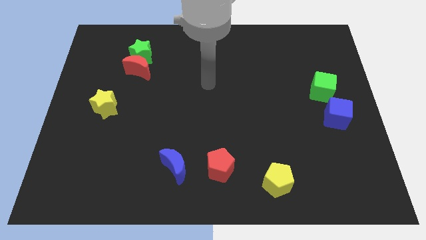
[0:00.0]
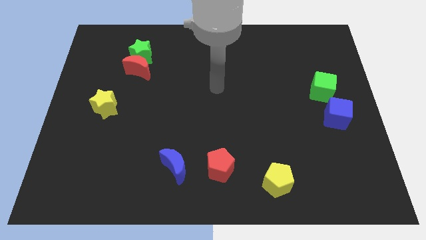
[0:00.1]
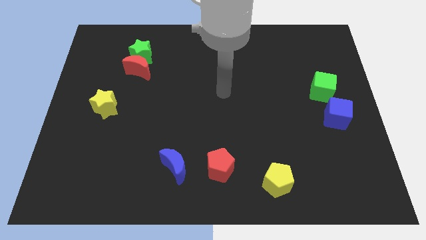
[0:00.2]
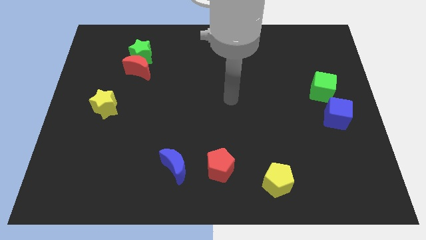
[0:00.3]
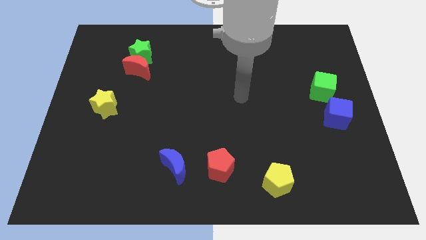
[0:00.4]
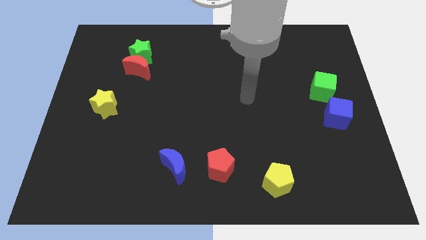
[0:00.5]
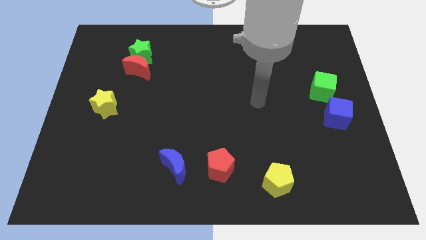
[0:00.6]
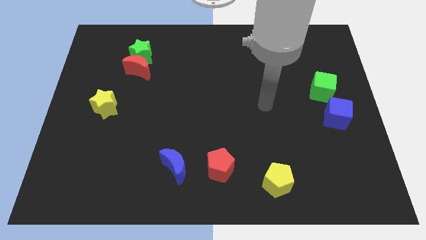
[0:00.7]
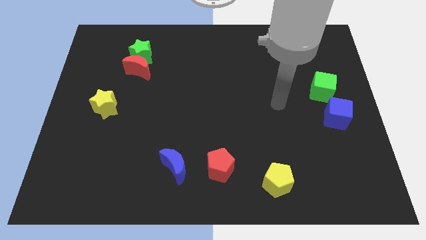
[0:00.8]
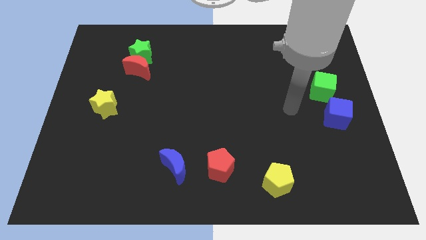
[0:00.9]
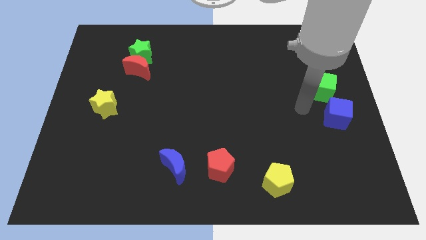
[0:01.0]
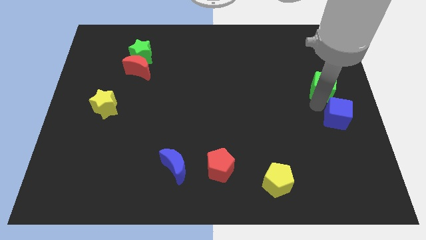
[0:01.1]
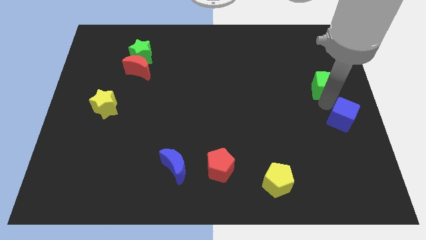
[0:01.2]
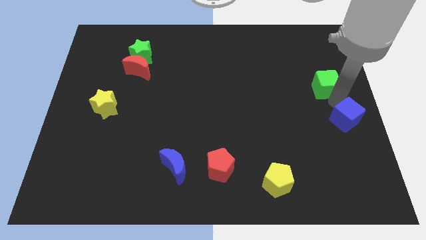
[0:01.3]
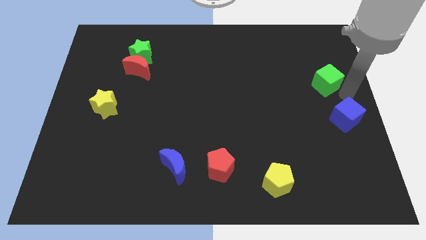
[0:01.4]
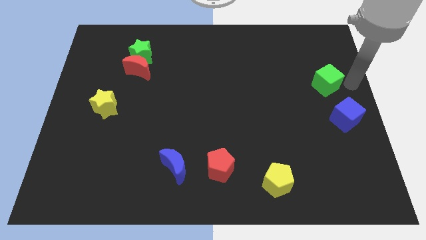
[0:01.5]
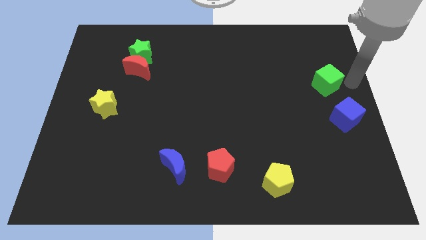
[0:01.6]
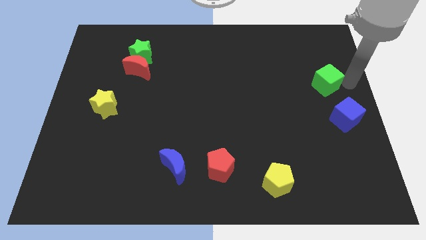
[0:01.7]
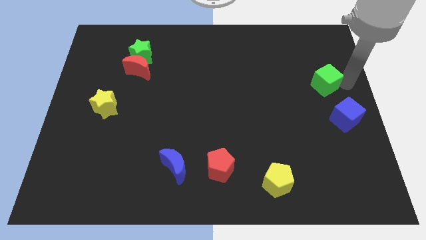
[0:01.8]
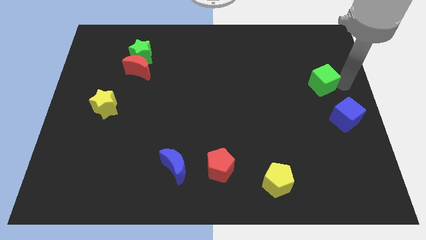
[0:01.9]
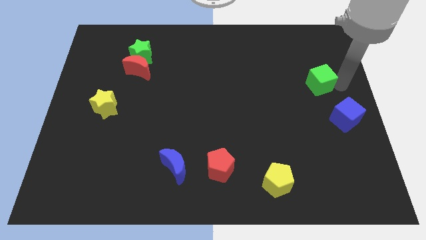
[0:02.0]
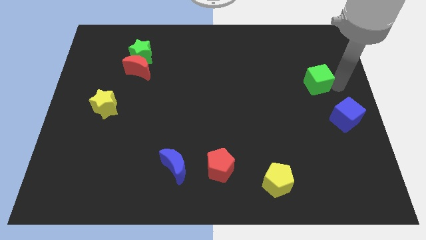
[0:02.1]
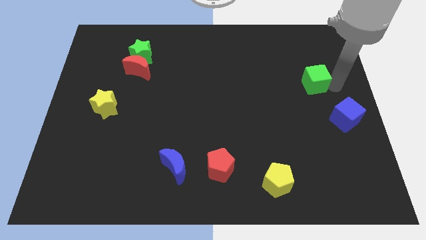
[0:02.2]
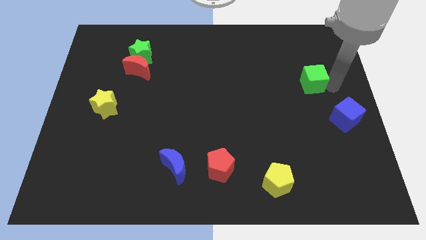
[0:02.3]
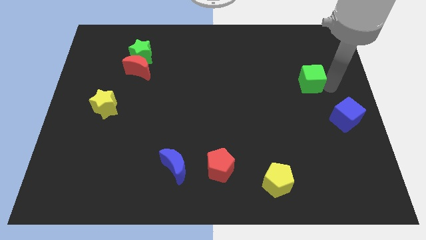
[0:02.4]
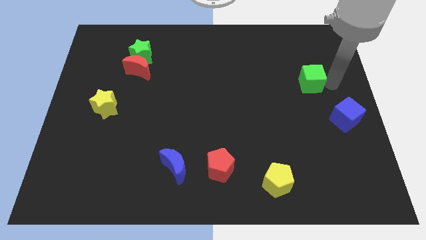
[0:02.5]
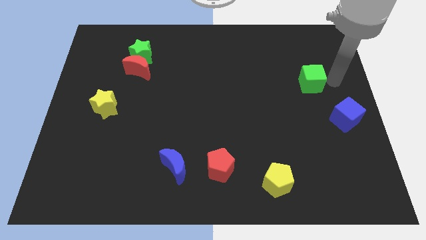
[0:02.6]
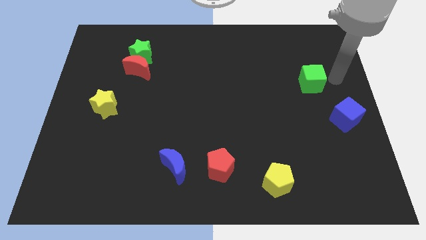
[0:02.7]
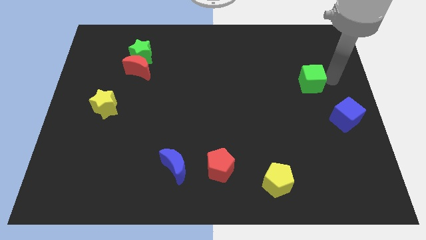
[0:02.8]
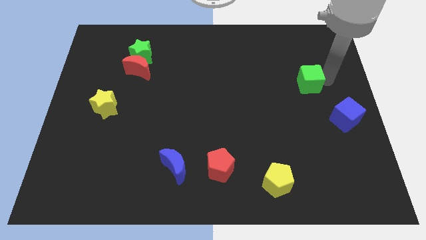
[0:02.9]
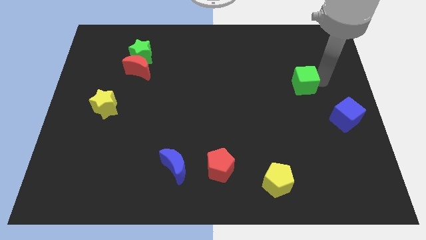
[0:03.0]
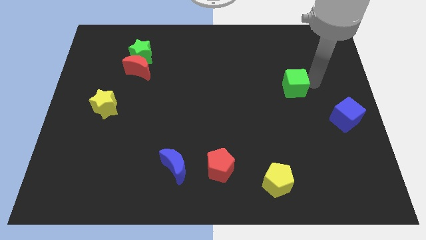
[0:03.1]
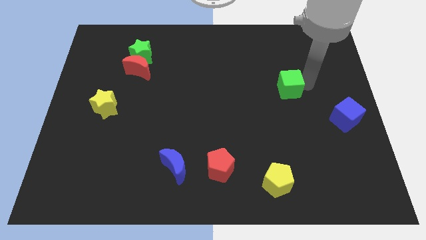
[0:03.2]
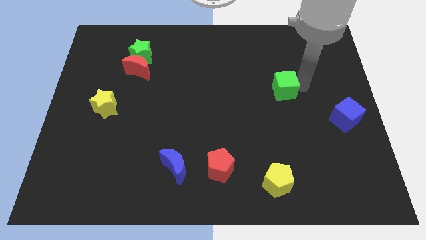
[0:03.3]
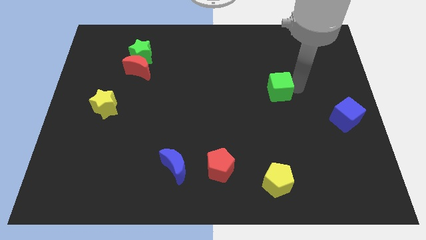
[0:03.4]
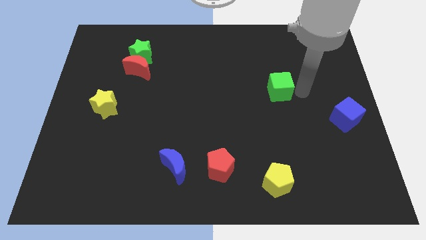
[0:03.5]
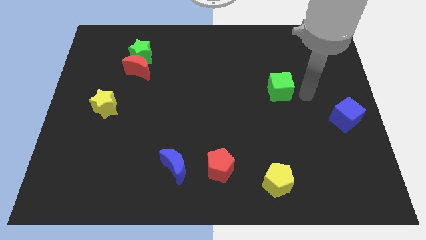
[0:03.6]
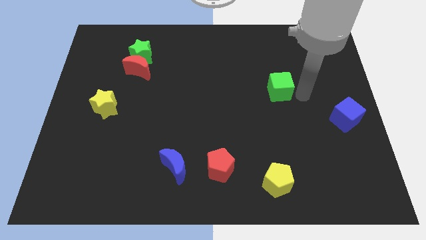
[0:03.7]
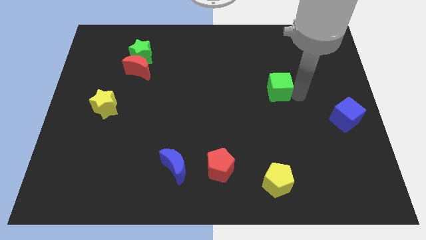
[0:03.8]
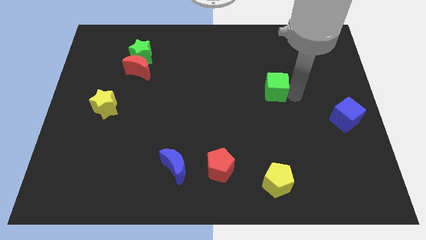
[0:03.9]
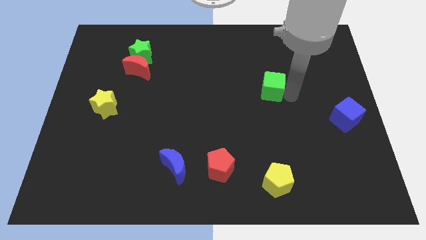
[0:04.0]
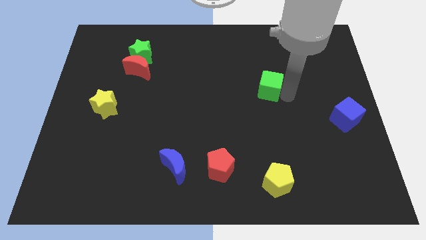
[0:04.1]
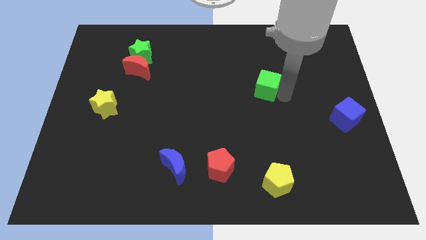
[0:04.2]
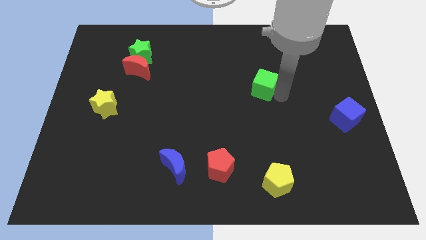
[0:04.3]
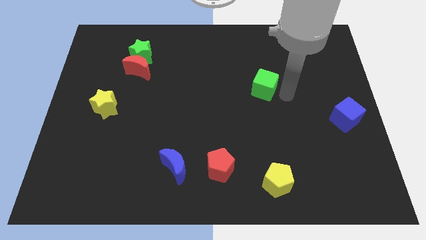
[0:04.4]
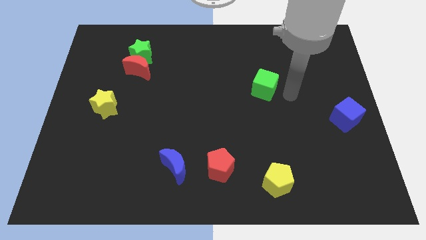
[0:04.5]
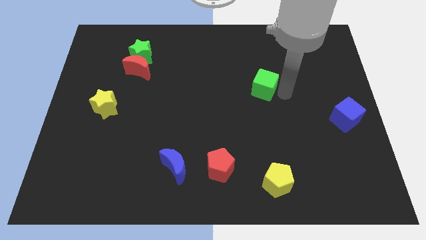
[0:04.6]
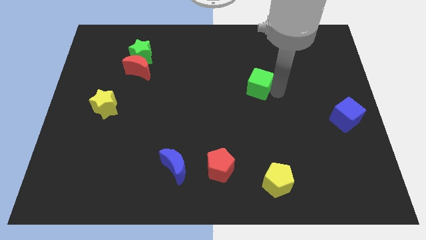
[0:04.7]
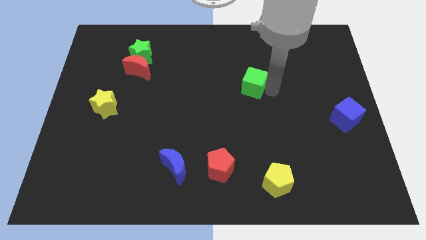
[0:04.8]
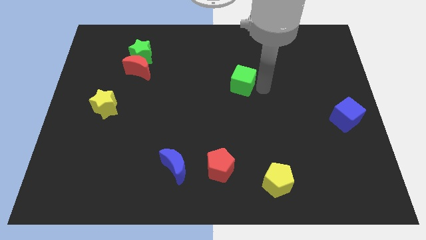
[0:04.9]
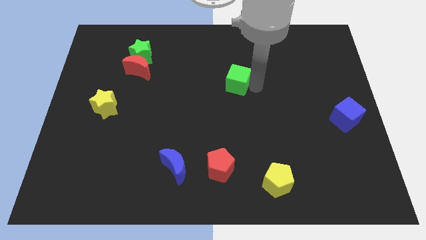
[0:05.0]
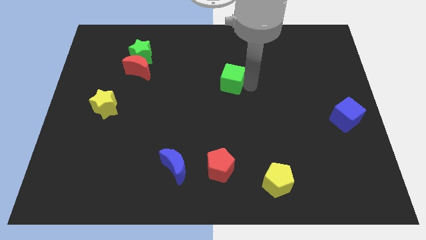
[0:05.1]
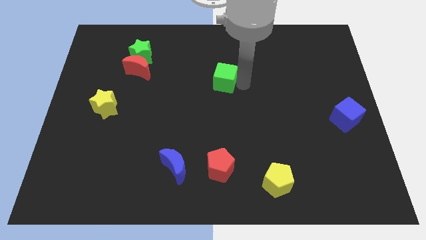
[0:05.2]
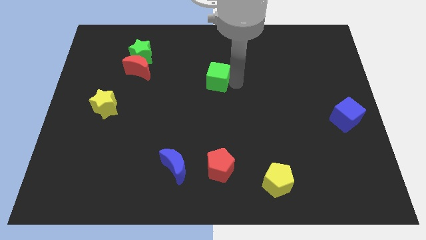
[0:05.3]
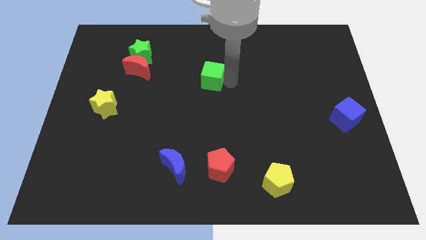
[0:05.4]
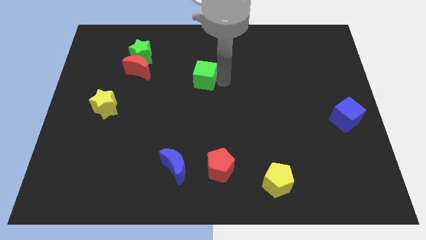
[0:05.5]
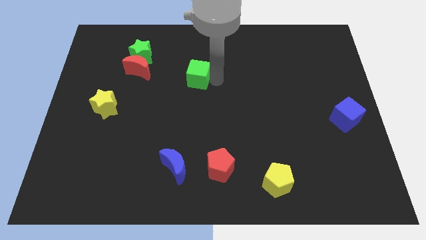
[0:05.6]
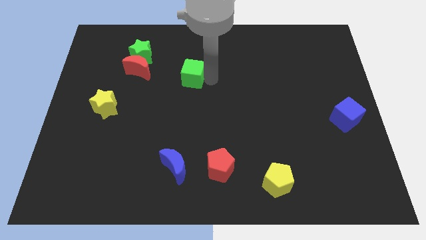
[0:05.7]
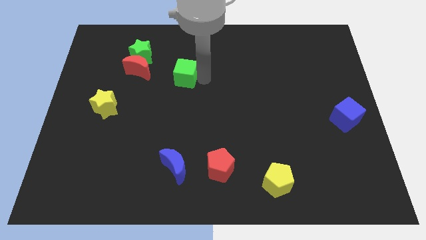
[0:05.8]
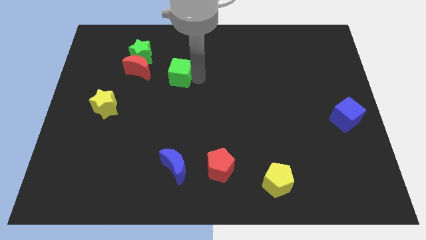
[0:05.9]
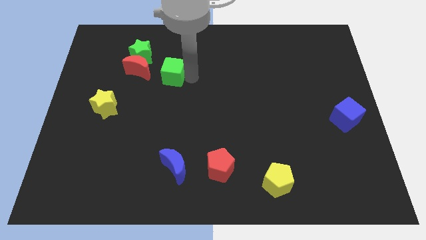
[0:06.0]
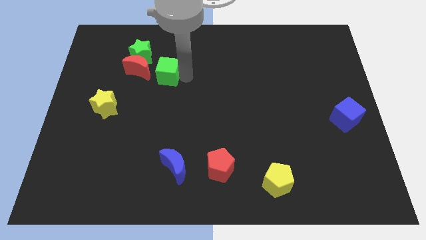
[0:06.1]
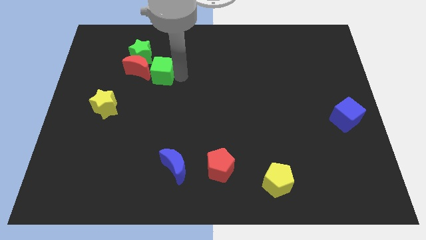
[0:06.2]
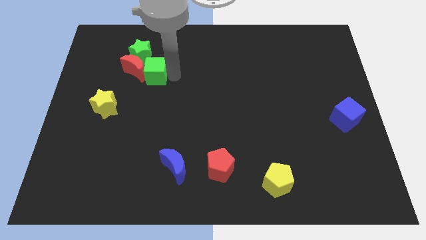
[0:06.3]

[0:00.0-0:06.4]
put the green cube close to the red moon

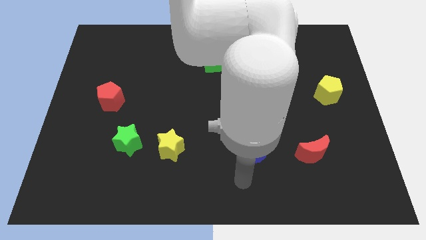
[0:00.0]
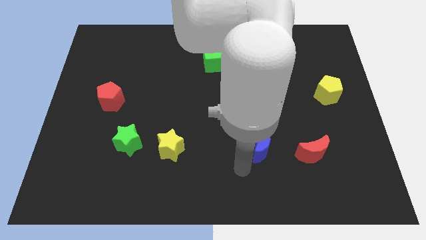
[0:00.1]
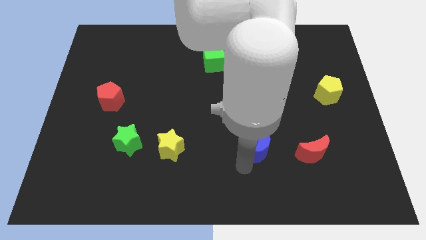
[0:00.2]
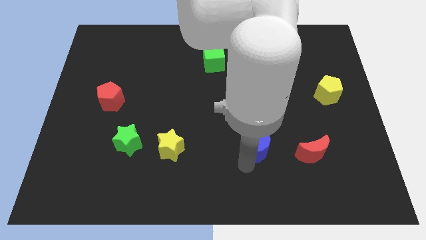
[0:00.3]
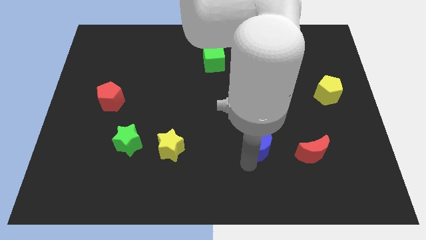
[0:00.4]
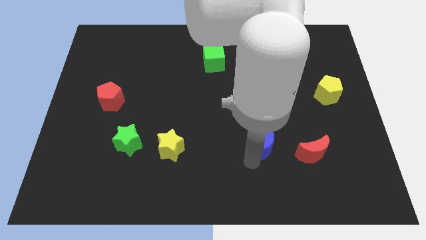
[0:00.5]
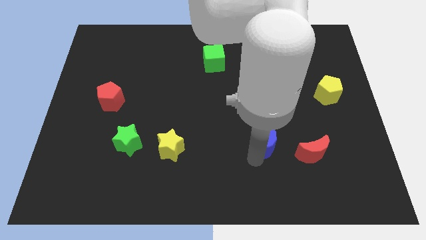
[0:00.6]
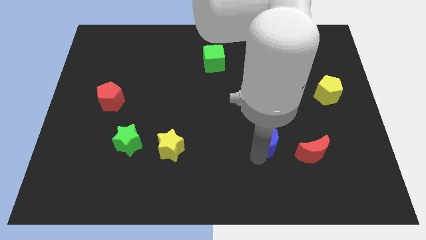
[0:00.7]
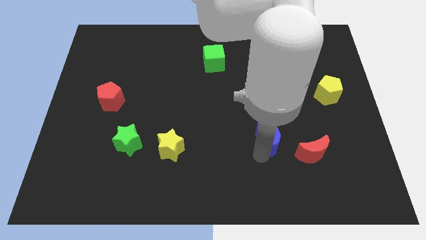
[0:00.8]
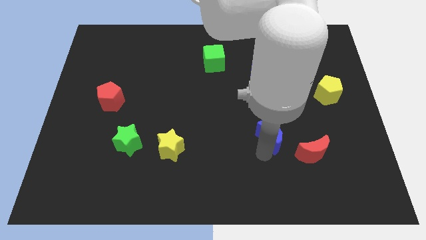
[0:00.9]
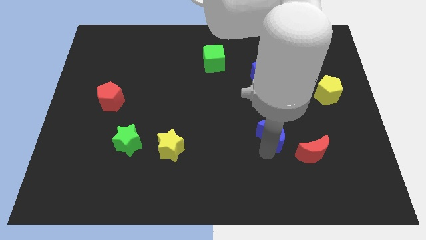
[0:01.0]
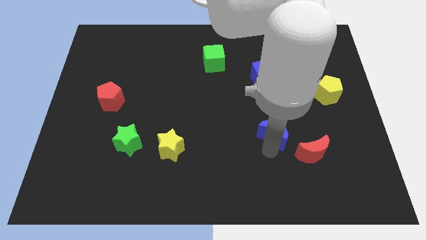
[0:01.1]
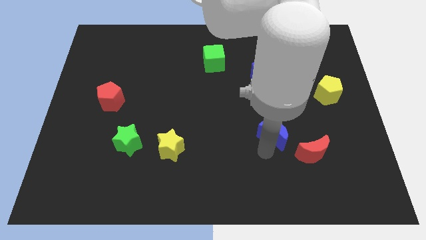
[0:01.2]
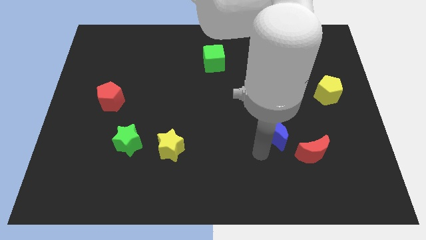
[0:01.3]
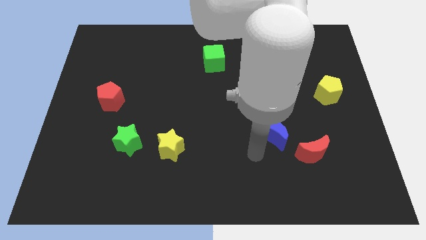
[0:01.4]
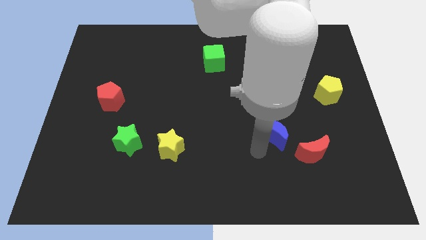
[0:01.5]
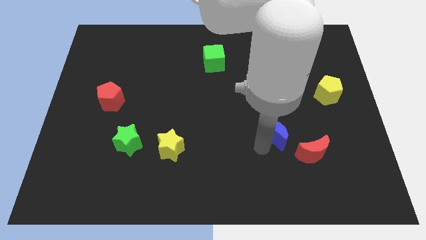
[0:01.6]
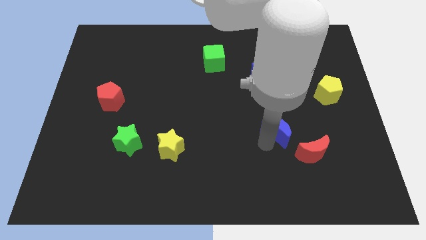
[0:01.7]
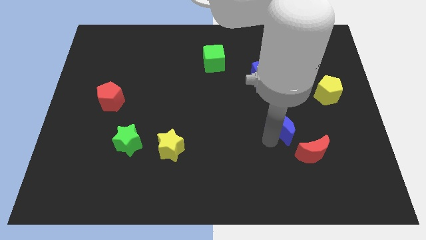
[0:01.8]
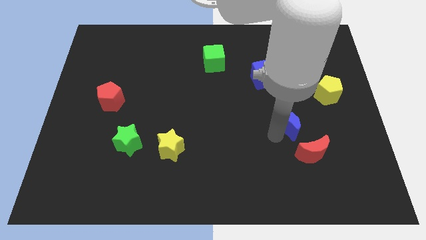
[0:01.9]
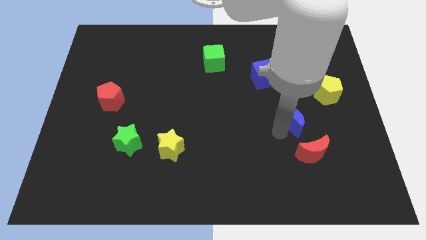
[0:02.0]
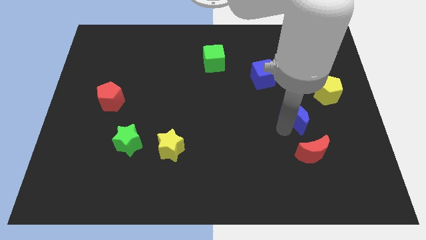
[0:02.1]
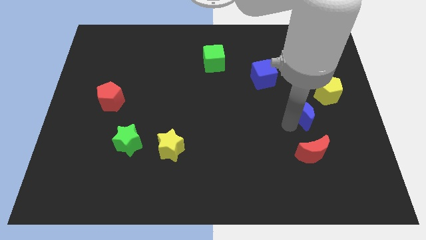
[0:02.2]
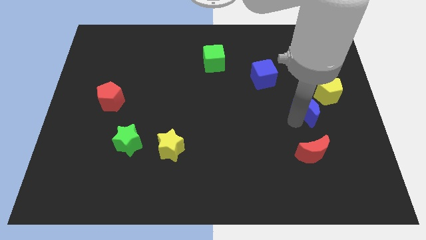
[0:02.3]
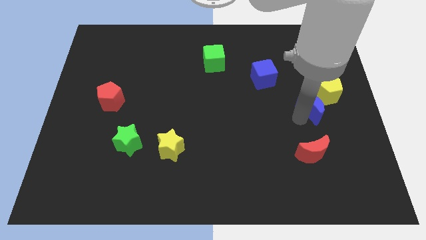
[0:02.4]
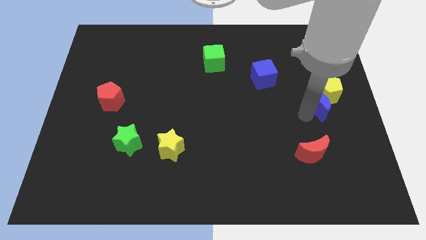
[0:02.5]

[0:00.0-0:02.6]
move the blue moon close to the yellow pentagon
